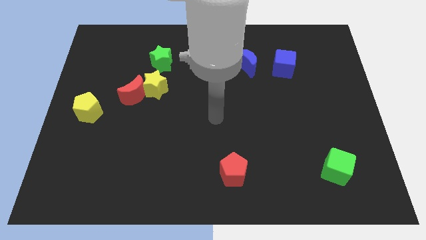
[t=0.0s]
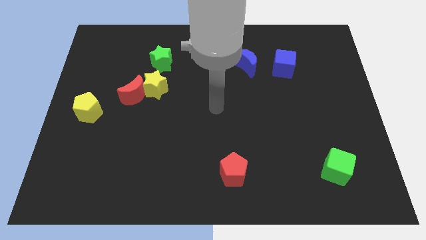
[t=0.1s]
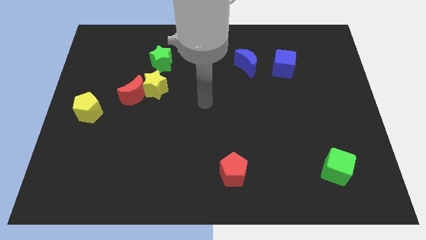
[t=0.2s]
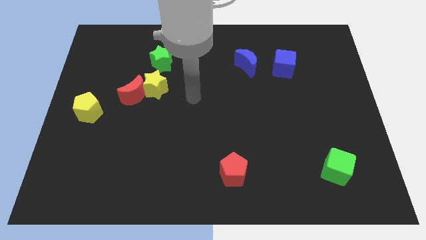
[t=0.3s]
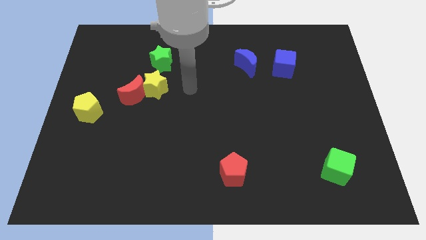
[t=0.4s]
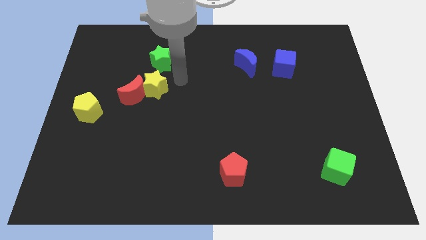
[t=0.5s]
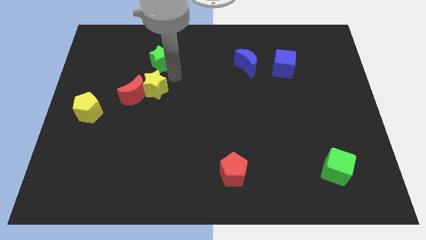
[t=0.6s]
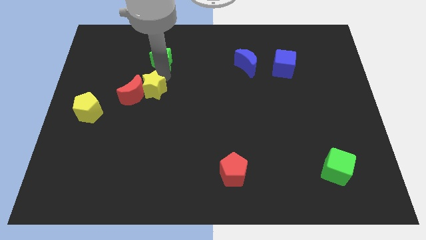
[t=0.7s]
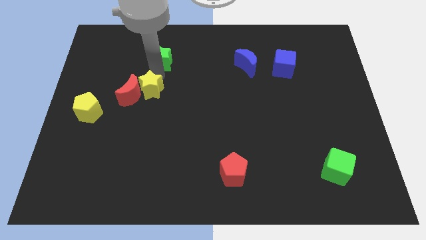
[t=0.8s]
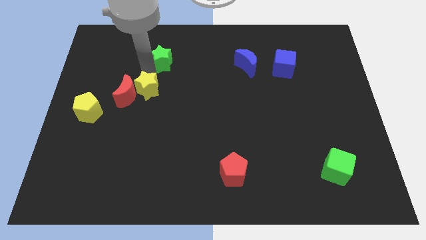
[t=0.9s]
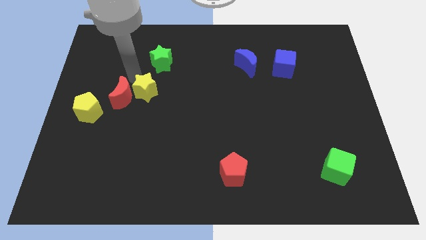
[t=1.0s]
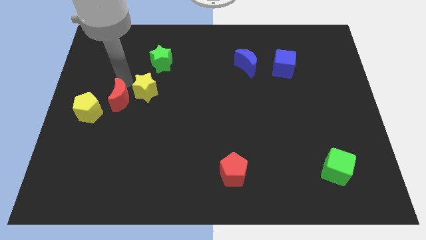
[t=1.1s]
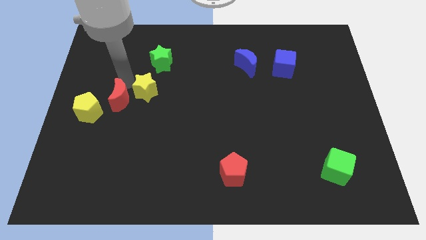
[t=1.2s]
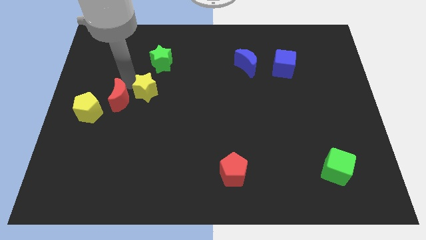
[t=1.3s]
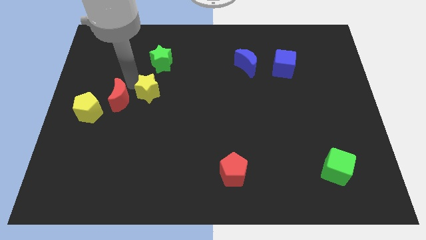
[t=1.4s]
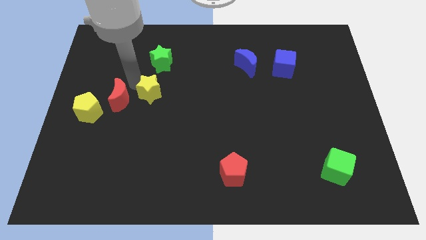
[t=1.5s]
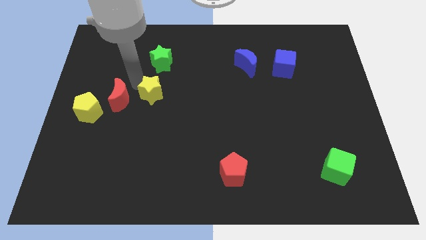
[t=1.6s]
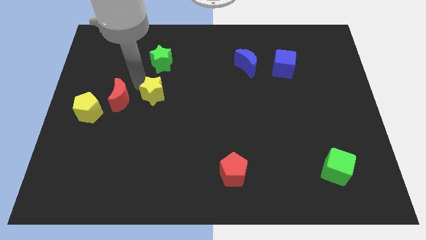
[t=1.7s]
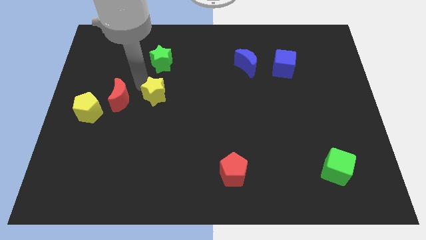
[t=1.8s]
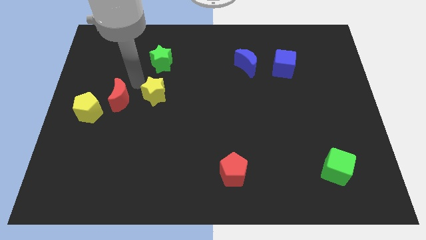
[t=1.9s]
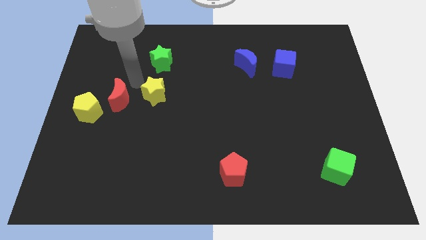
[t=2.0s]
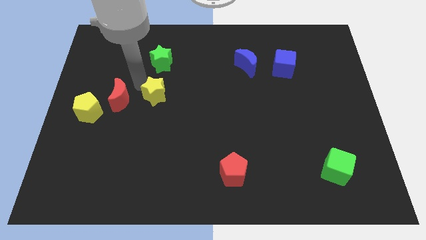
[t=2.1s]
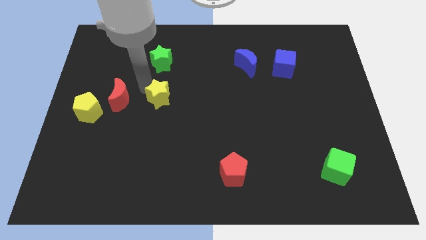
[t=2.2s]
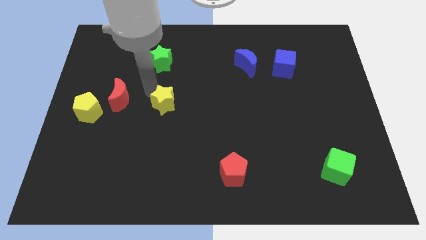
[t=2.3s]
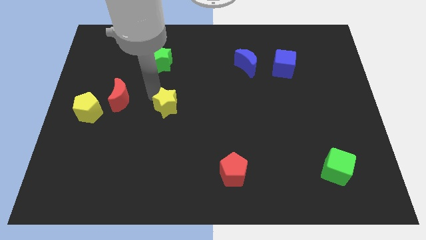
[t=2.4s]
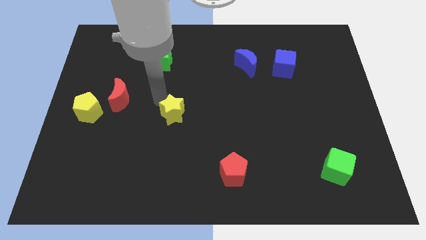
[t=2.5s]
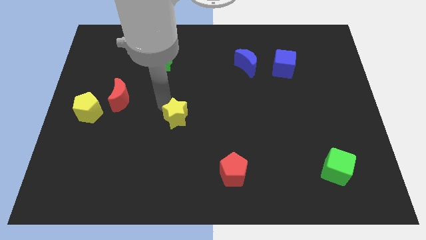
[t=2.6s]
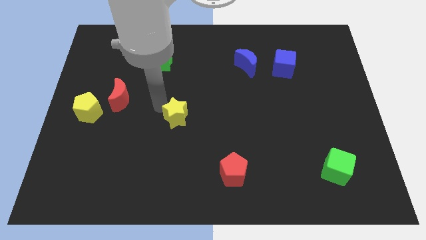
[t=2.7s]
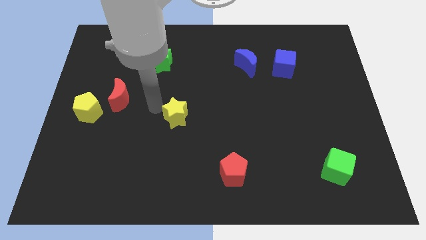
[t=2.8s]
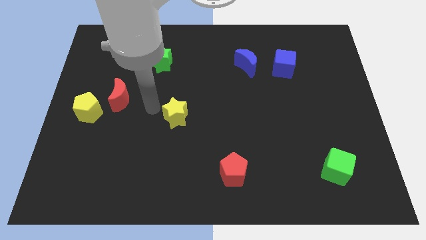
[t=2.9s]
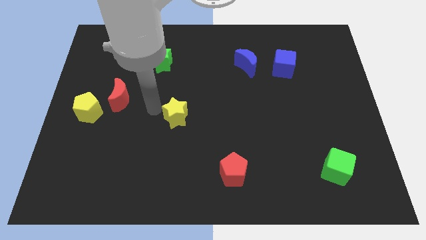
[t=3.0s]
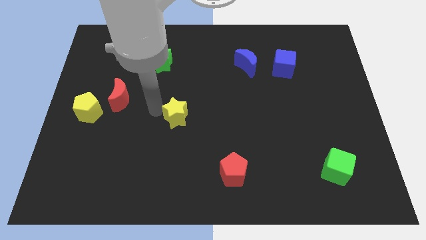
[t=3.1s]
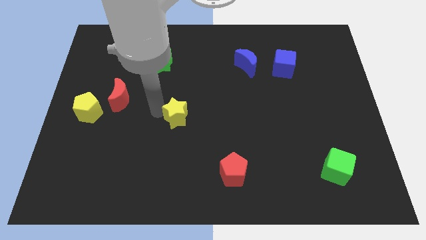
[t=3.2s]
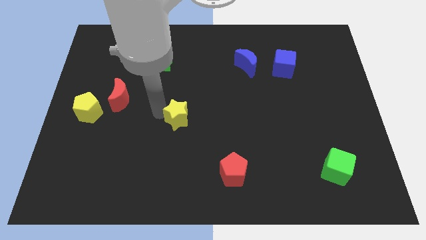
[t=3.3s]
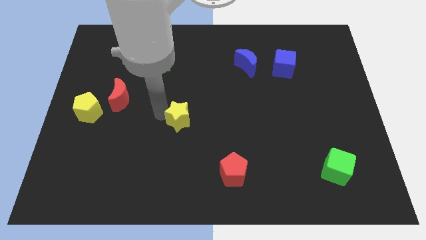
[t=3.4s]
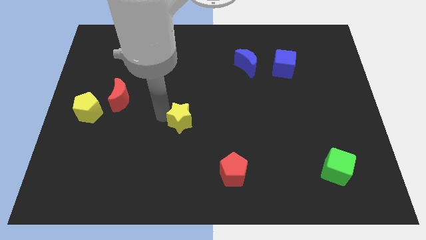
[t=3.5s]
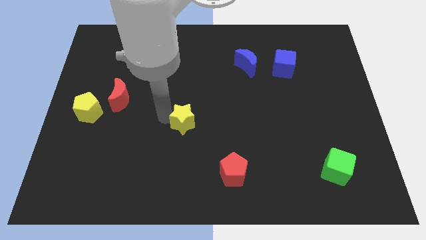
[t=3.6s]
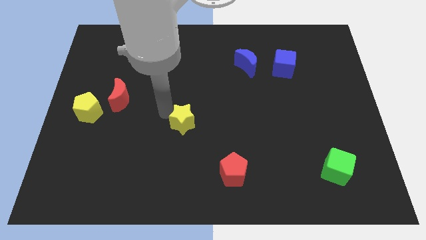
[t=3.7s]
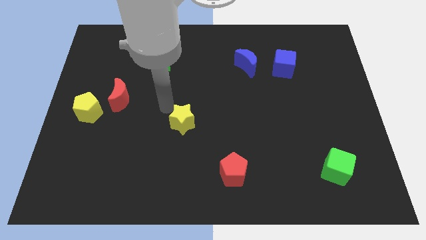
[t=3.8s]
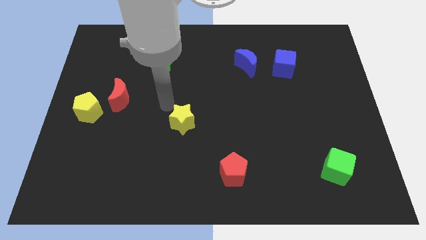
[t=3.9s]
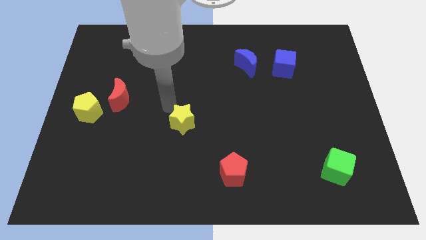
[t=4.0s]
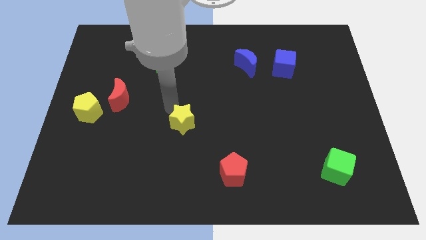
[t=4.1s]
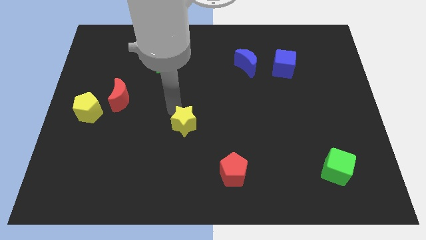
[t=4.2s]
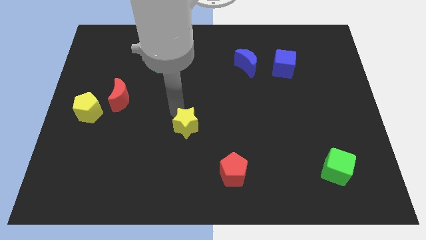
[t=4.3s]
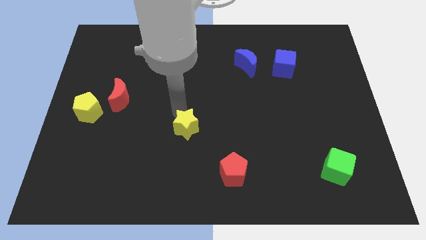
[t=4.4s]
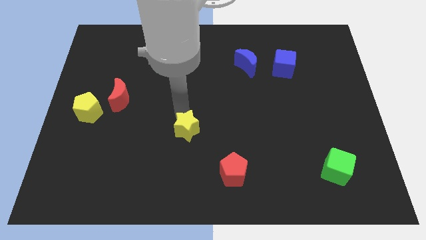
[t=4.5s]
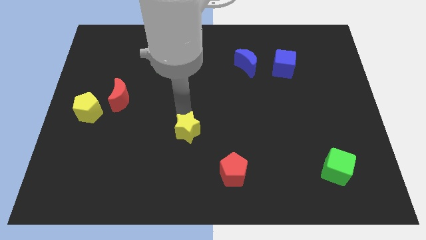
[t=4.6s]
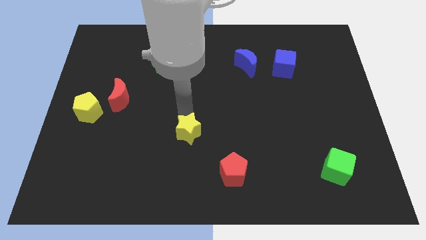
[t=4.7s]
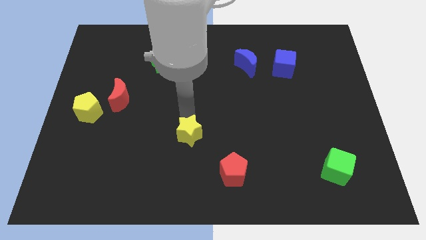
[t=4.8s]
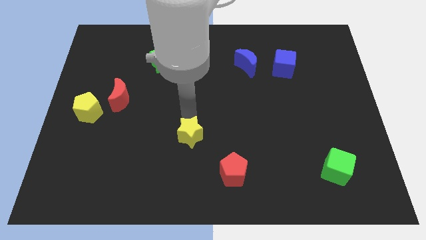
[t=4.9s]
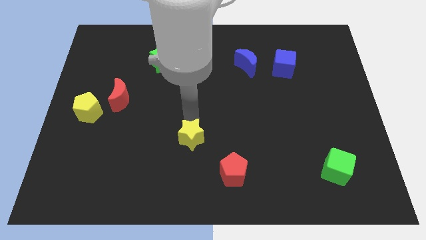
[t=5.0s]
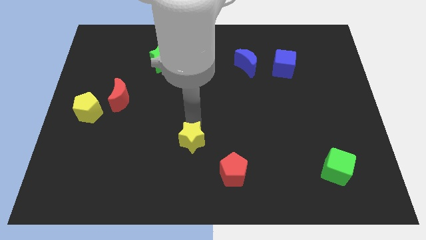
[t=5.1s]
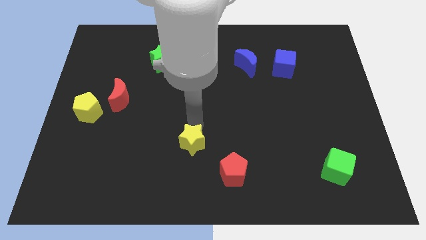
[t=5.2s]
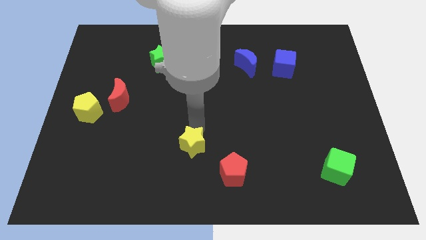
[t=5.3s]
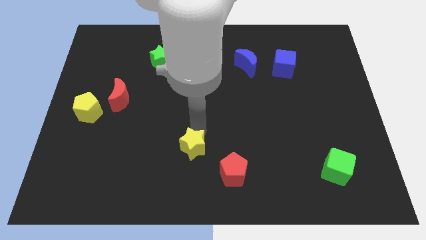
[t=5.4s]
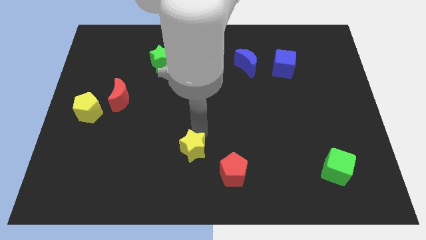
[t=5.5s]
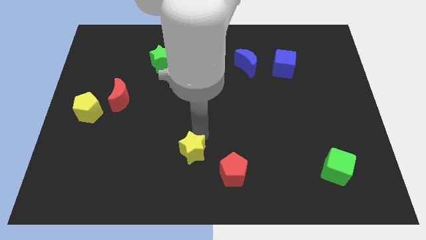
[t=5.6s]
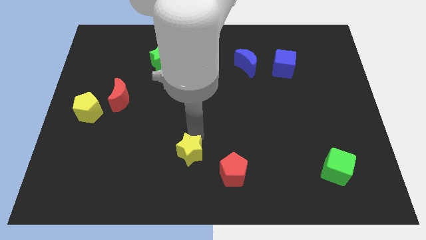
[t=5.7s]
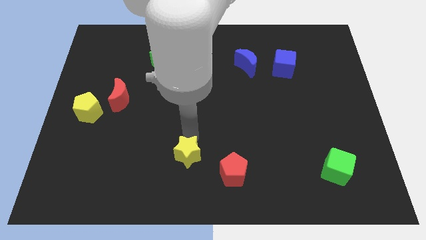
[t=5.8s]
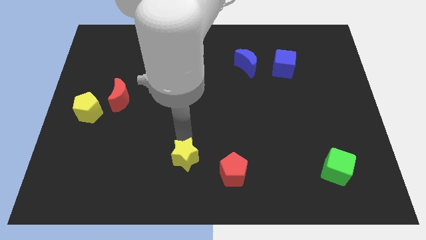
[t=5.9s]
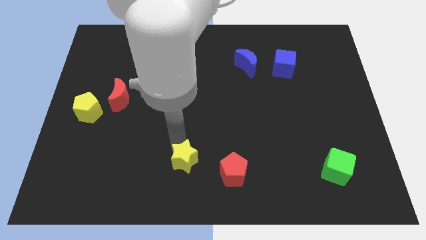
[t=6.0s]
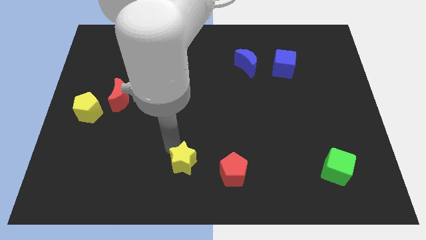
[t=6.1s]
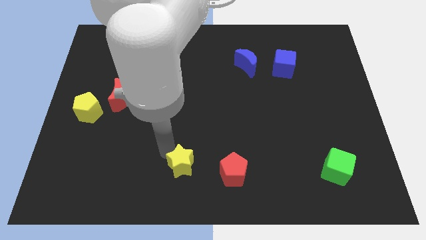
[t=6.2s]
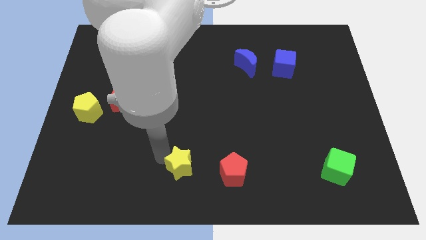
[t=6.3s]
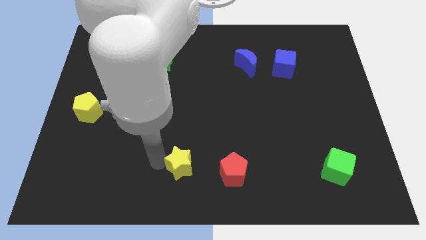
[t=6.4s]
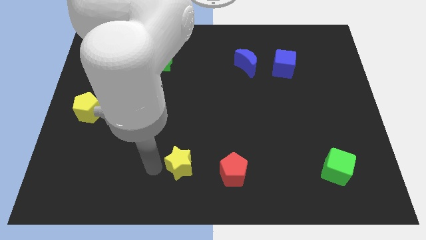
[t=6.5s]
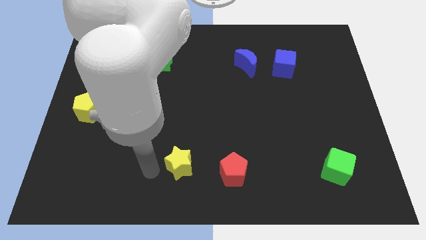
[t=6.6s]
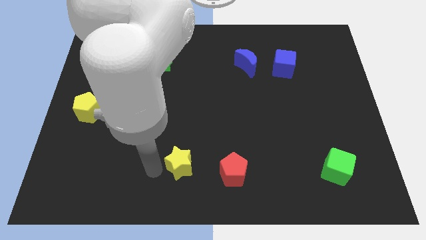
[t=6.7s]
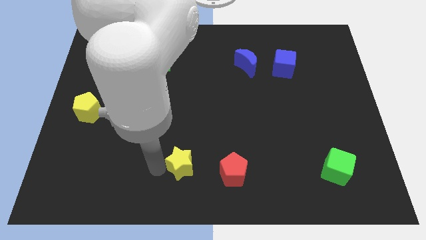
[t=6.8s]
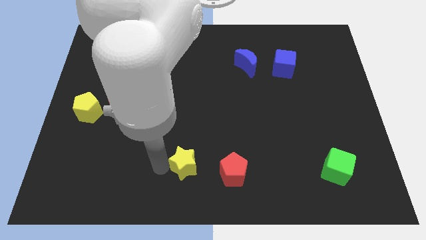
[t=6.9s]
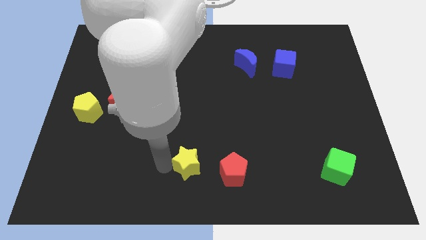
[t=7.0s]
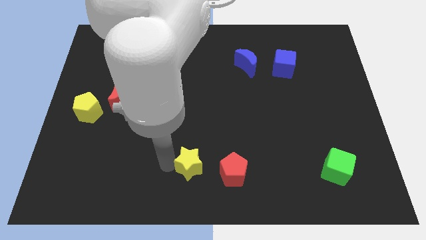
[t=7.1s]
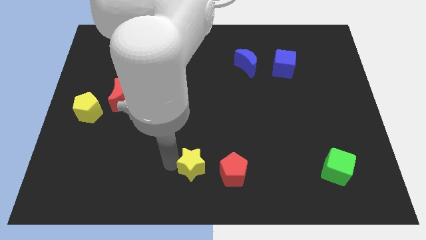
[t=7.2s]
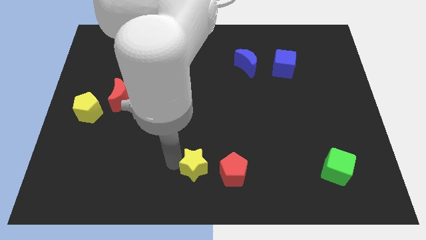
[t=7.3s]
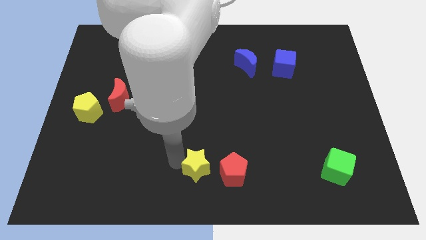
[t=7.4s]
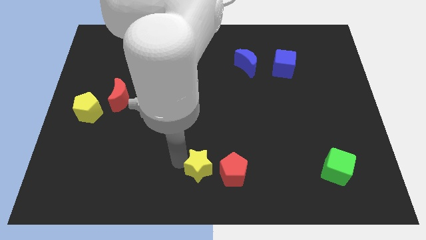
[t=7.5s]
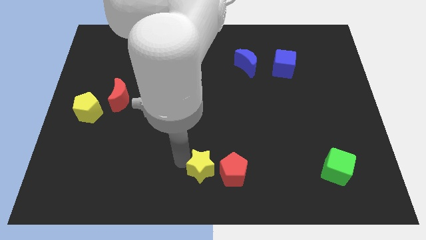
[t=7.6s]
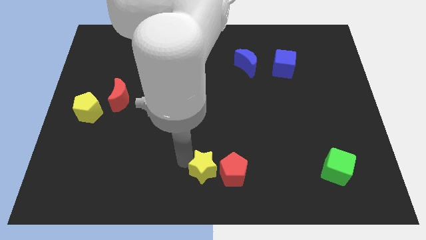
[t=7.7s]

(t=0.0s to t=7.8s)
move the yellow star next to the red pentagon
